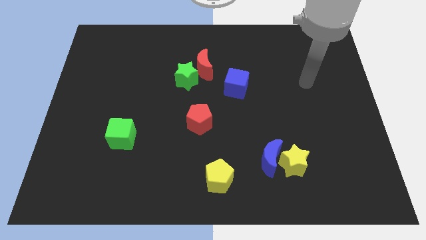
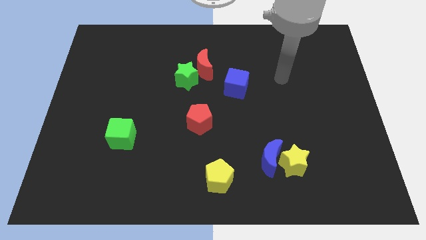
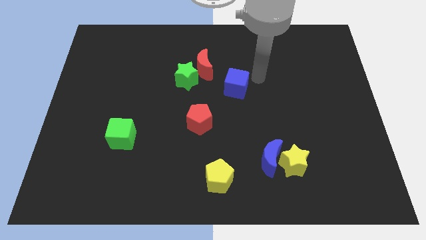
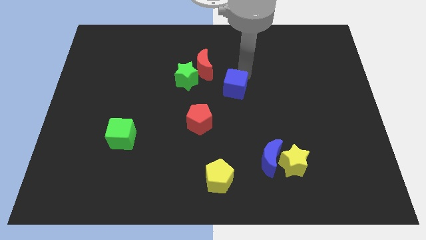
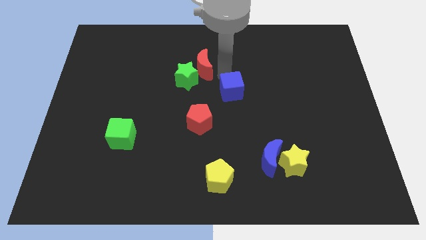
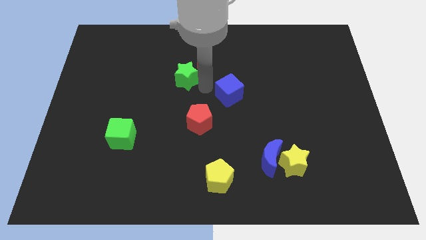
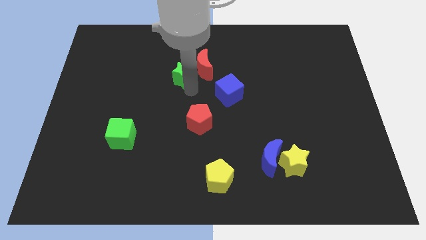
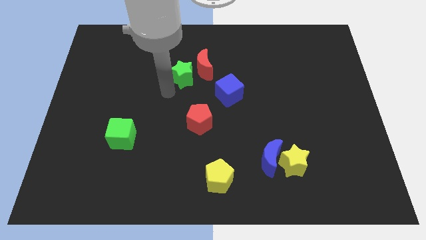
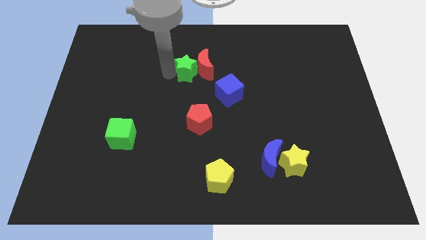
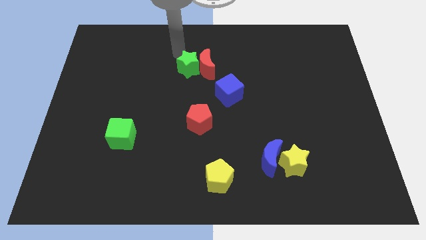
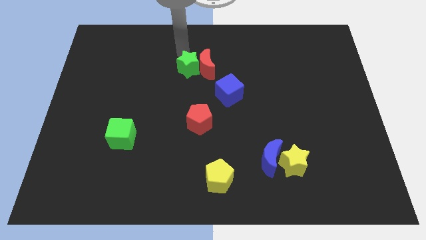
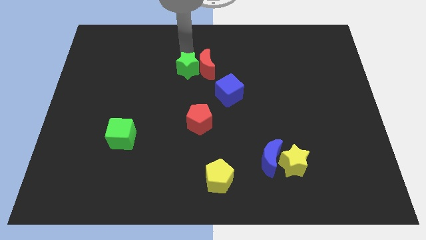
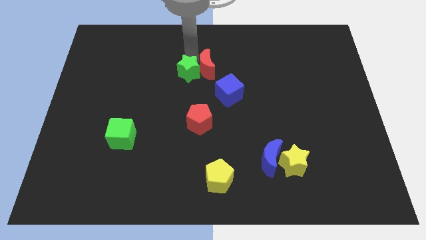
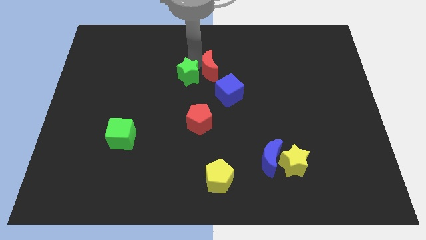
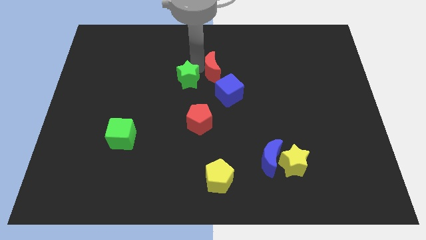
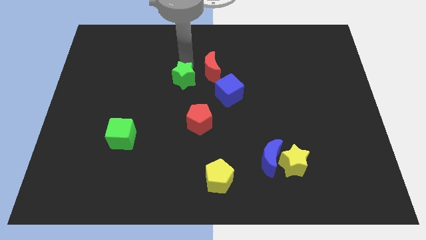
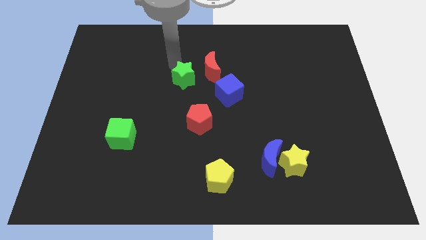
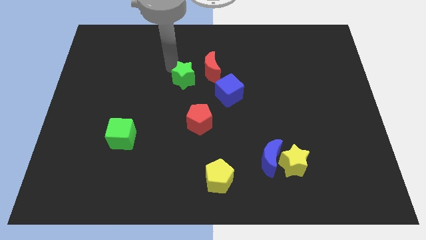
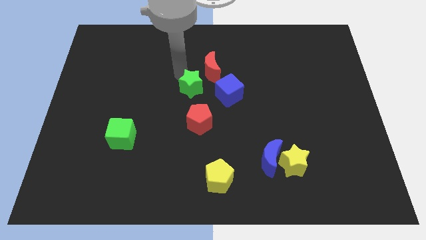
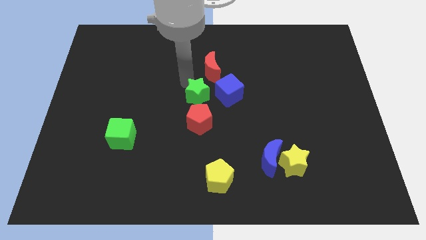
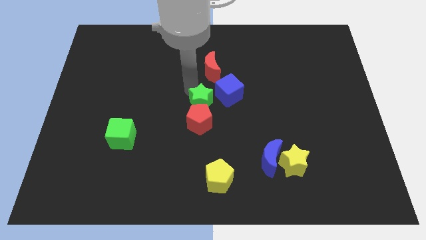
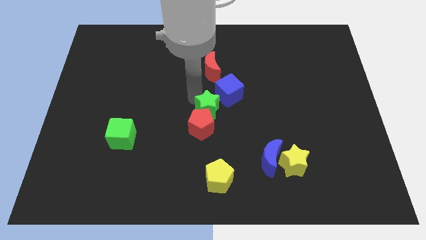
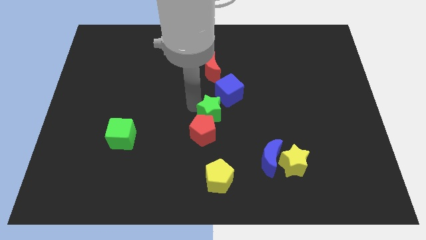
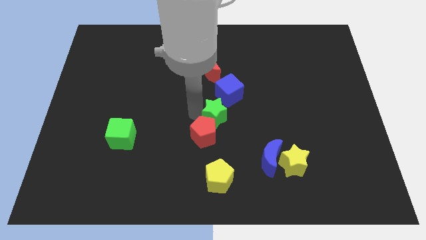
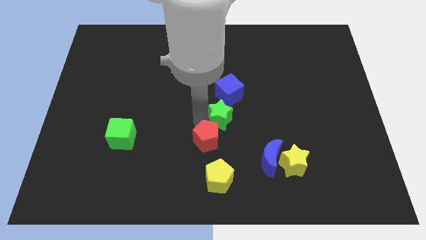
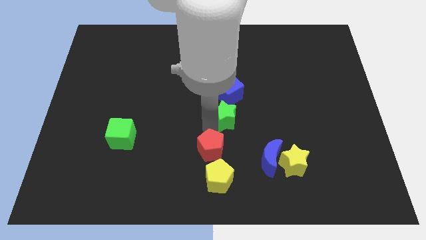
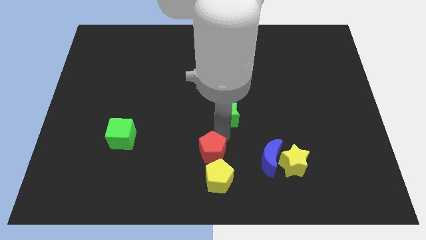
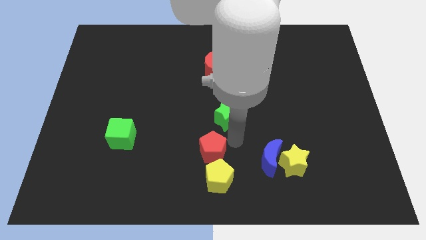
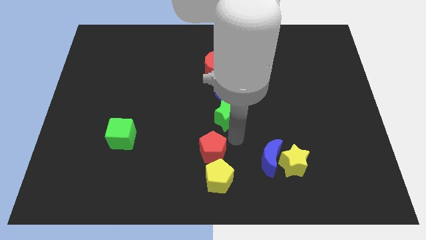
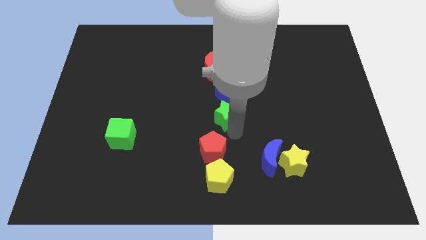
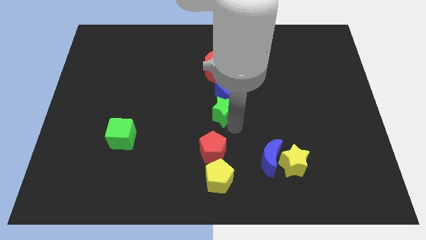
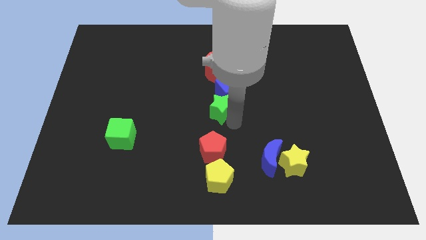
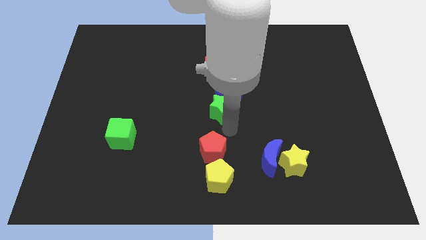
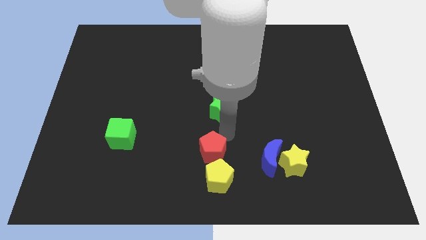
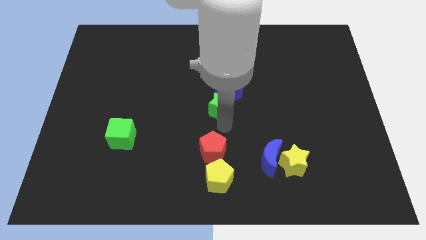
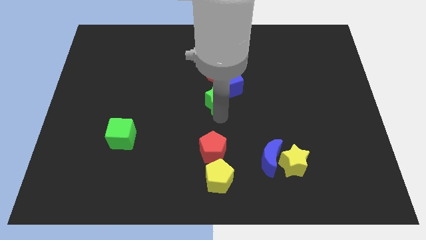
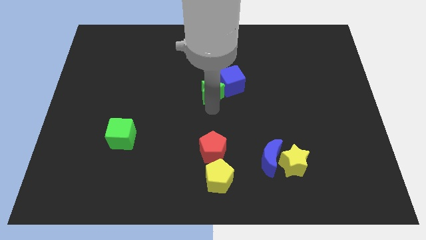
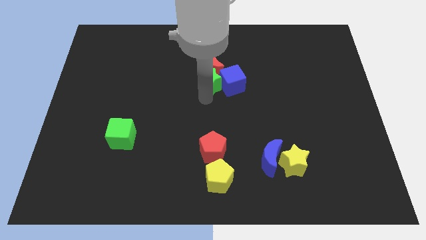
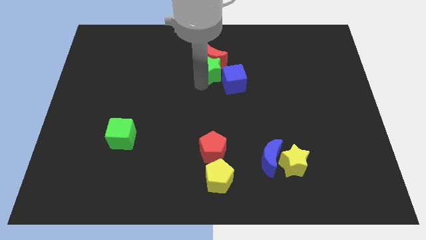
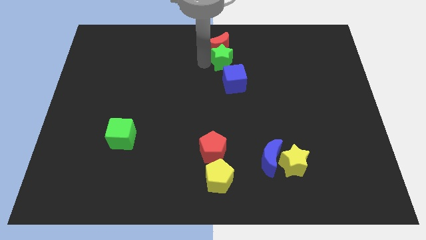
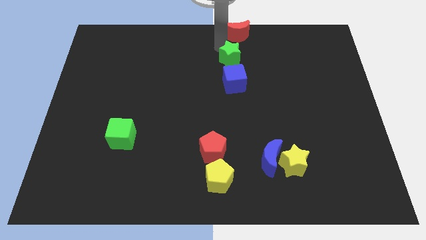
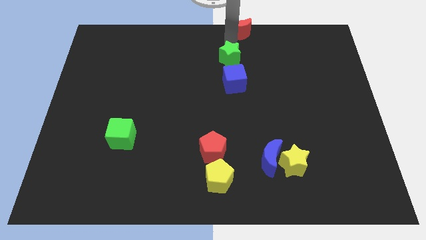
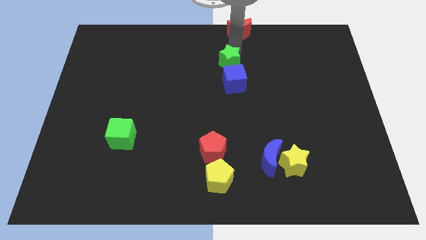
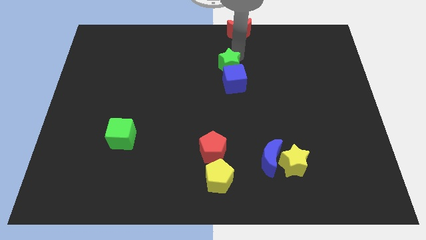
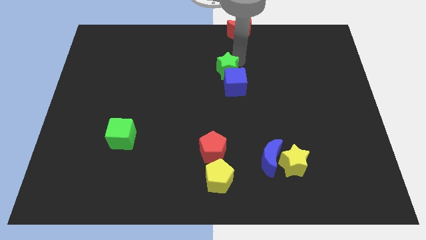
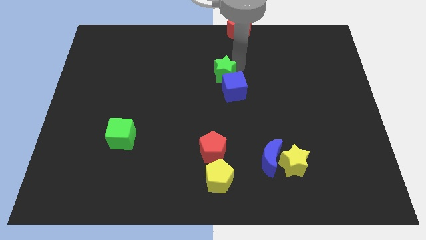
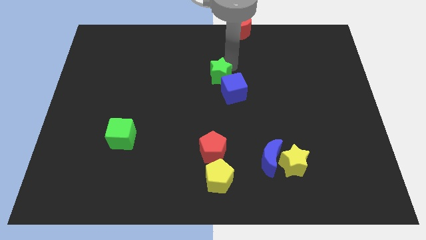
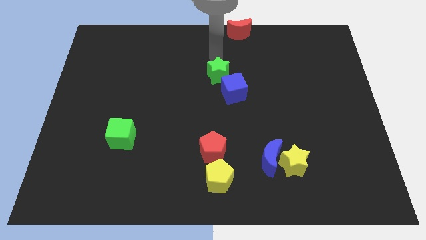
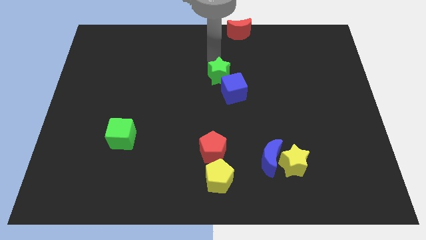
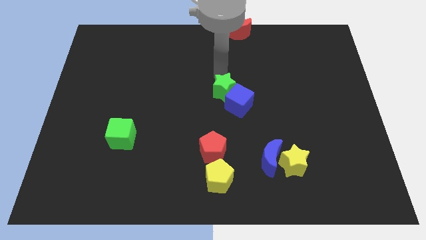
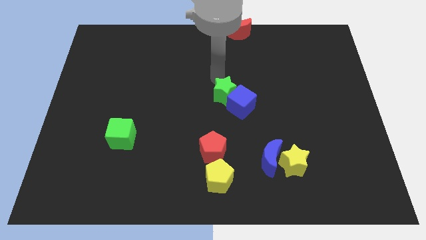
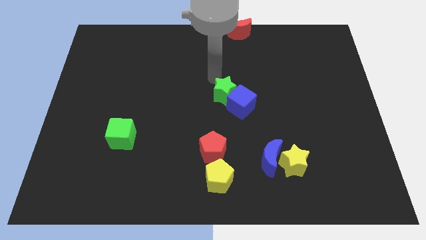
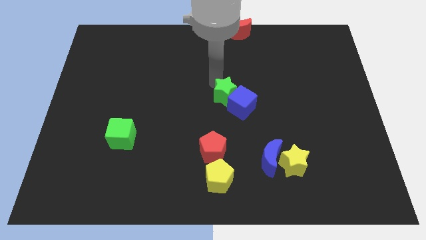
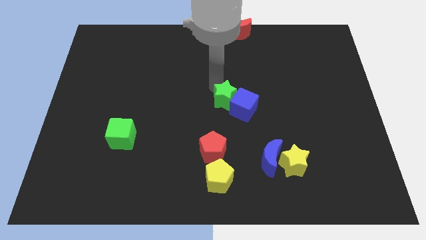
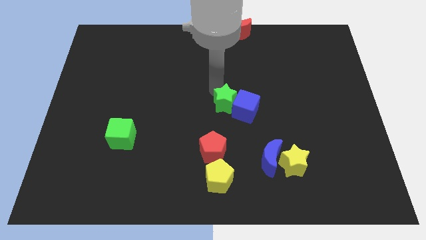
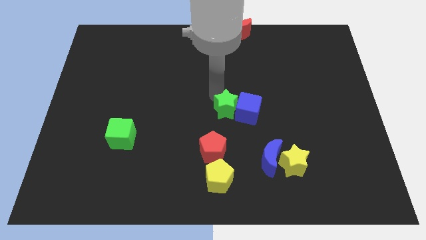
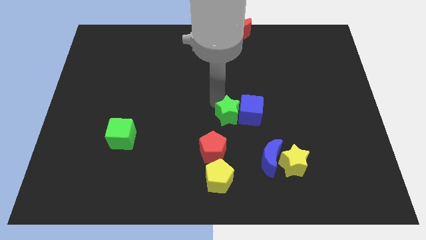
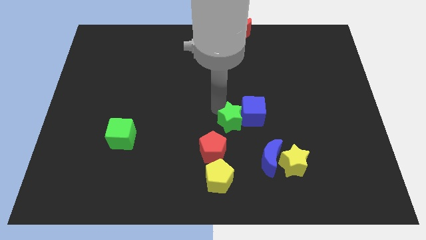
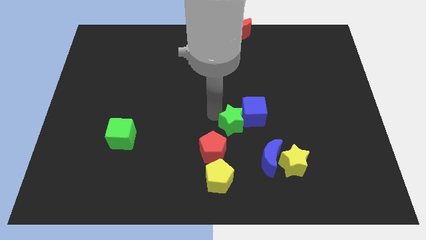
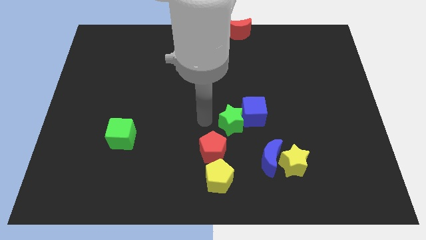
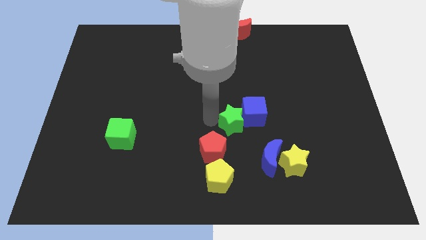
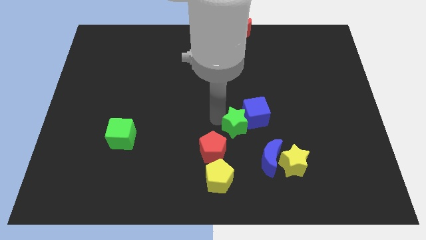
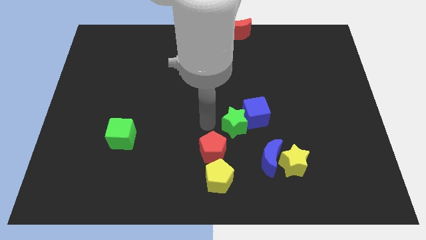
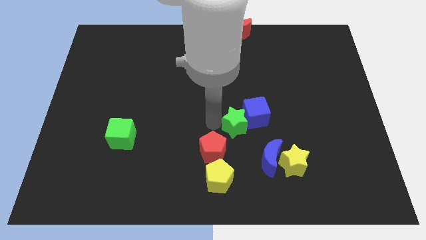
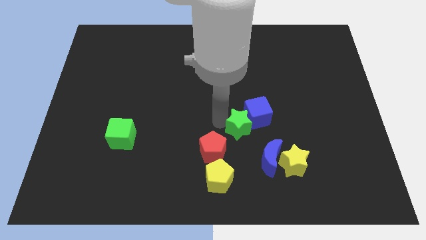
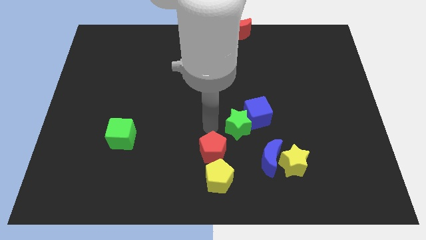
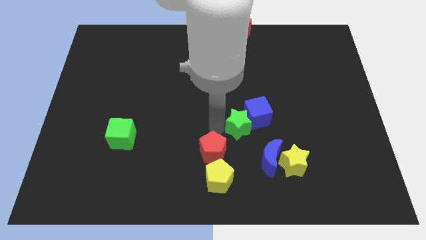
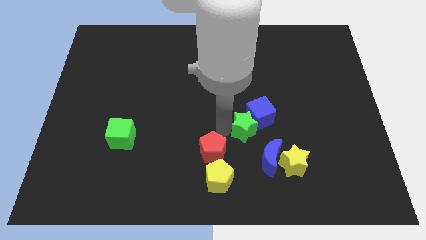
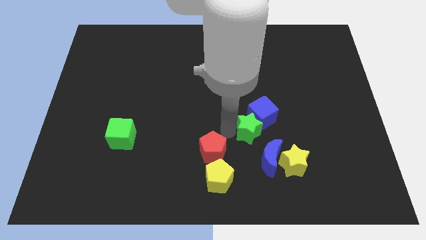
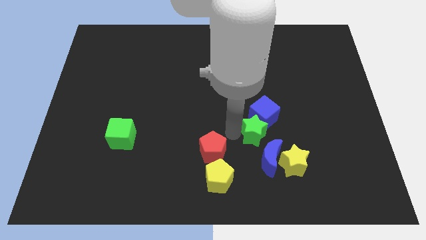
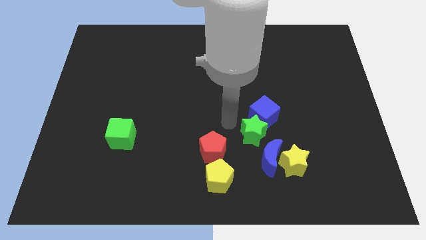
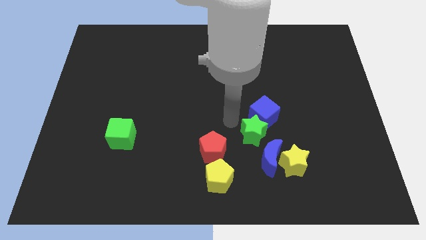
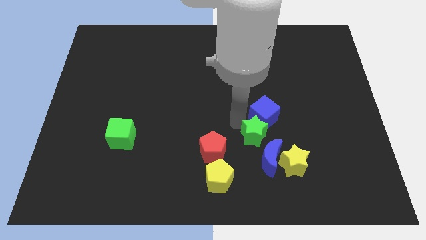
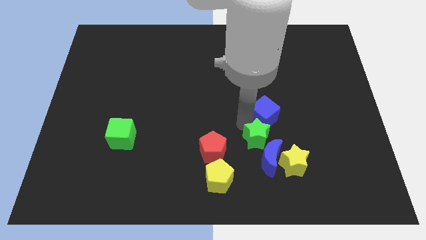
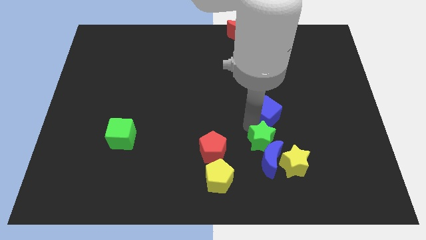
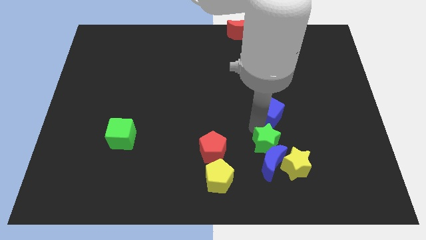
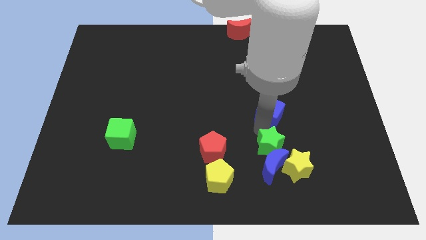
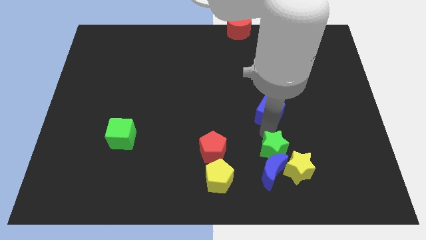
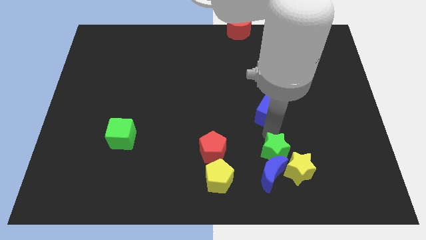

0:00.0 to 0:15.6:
push the green star next to the yellow star
